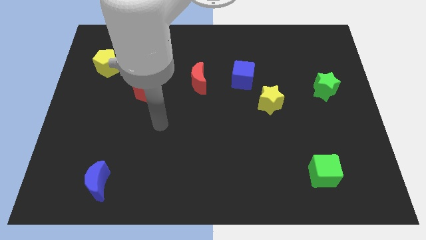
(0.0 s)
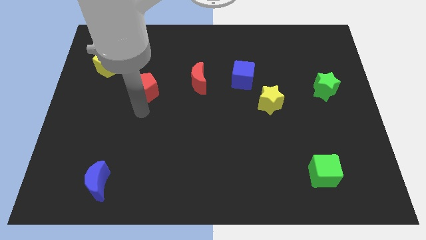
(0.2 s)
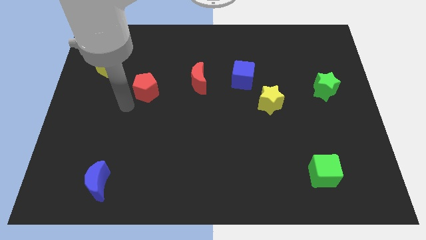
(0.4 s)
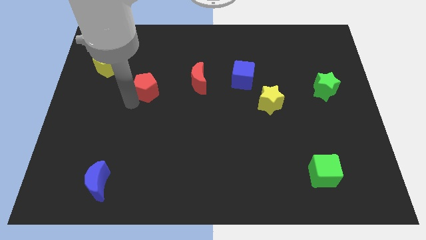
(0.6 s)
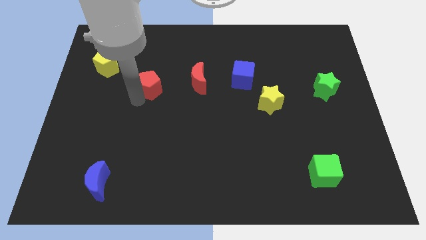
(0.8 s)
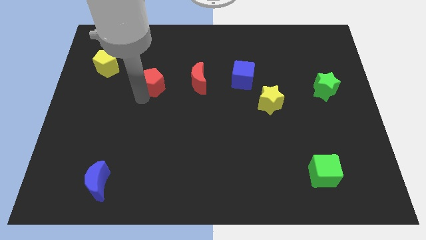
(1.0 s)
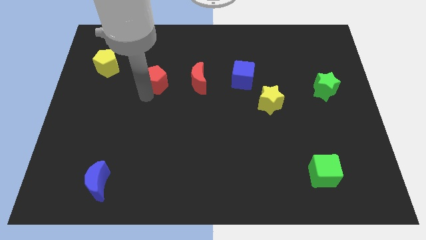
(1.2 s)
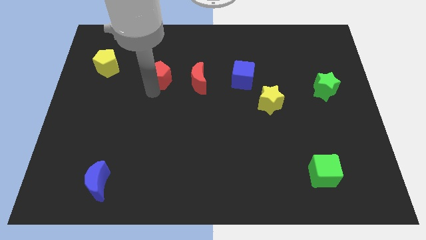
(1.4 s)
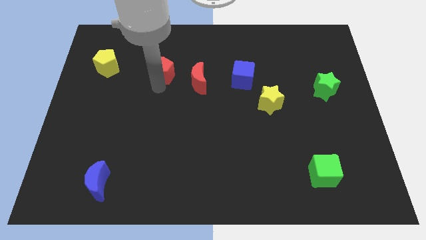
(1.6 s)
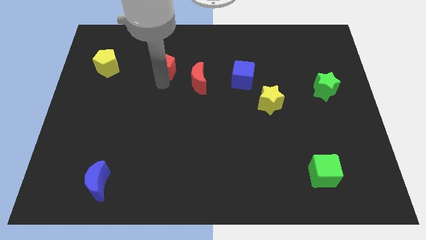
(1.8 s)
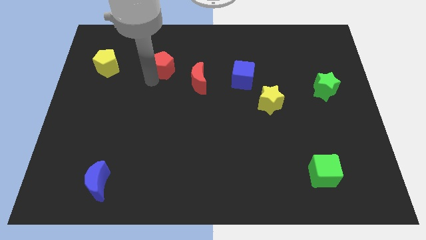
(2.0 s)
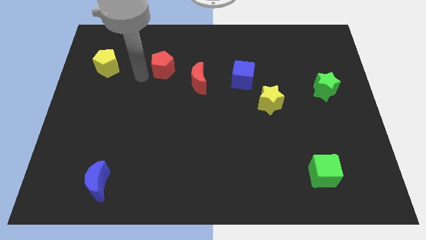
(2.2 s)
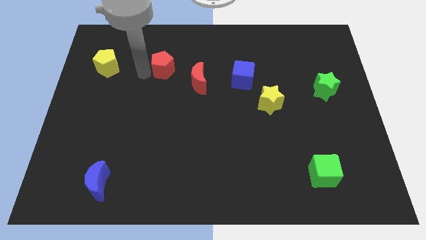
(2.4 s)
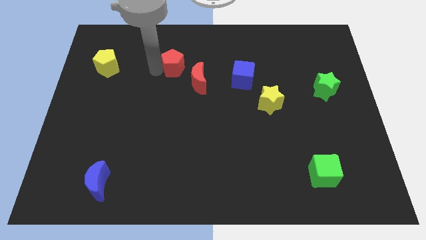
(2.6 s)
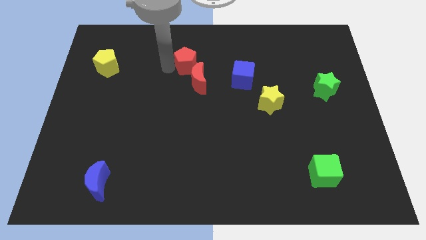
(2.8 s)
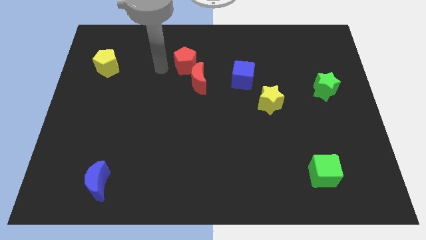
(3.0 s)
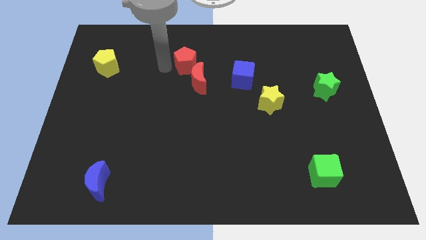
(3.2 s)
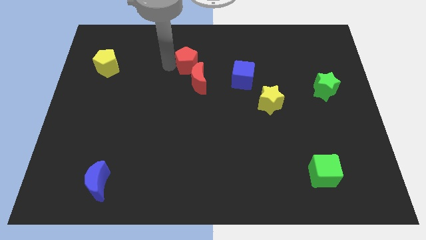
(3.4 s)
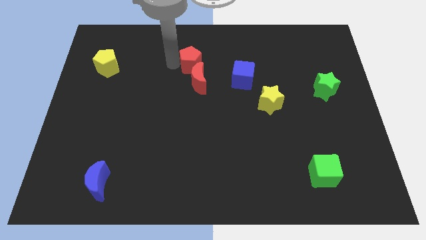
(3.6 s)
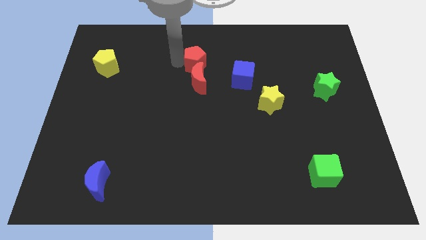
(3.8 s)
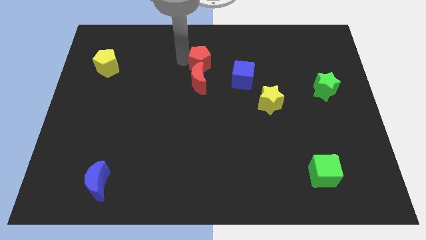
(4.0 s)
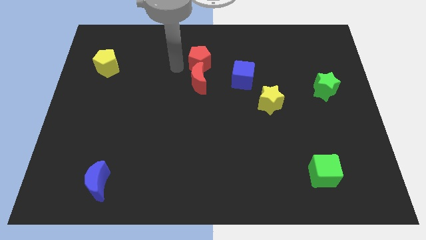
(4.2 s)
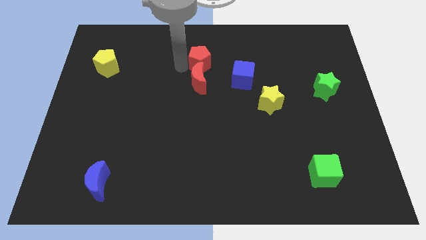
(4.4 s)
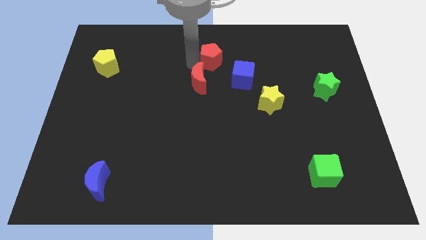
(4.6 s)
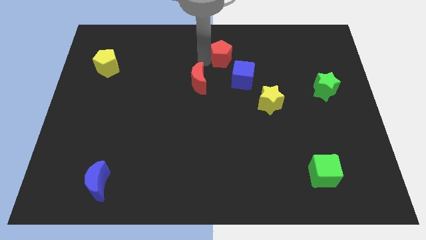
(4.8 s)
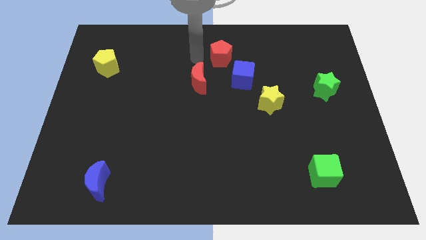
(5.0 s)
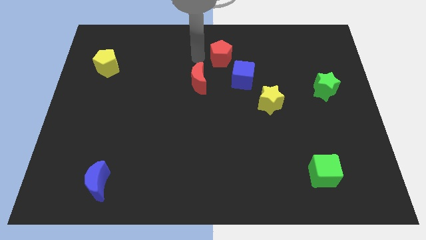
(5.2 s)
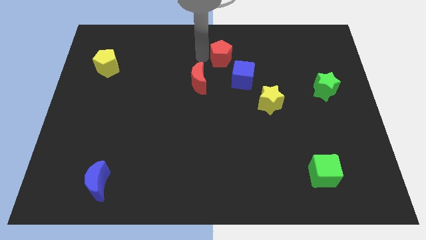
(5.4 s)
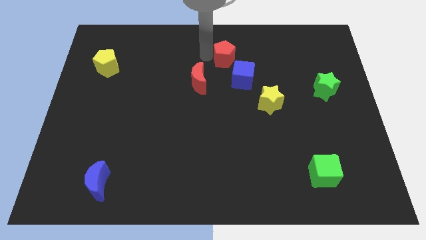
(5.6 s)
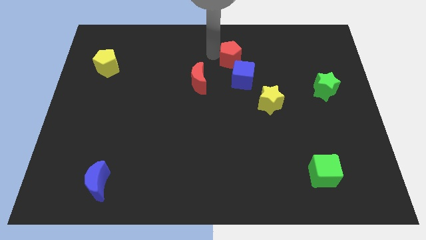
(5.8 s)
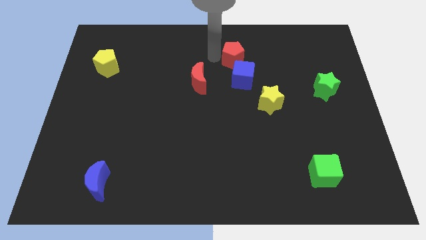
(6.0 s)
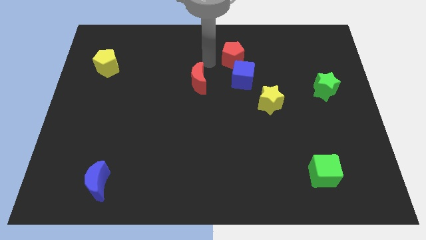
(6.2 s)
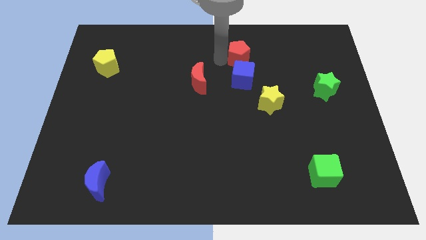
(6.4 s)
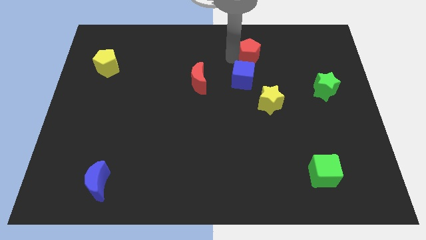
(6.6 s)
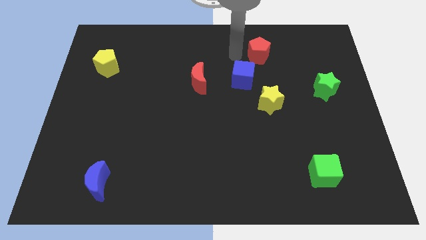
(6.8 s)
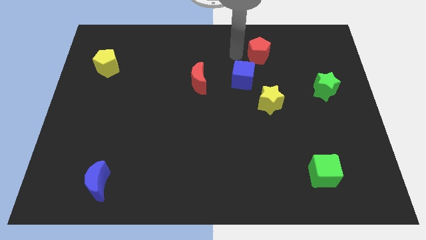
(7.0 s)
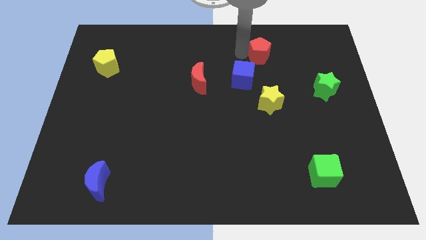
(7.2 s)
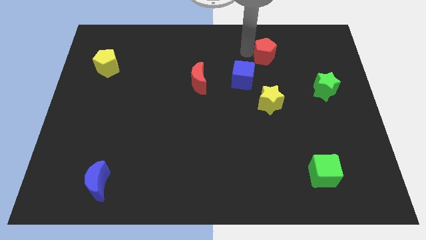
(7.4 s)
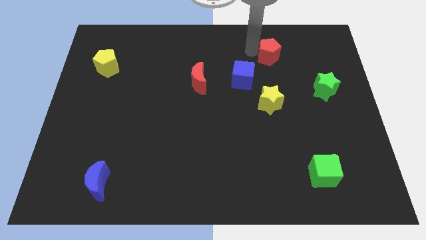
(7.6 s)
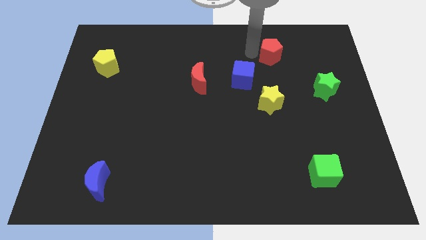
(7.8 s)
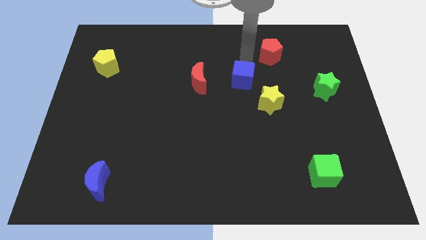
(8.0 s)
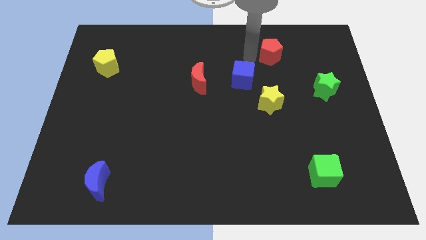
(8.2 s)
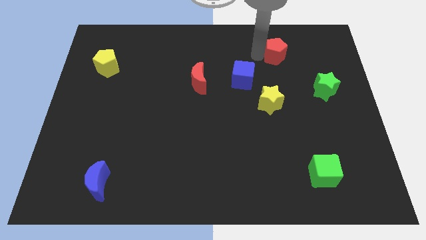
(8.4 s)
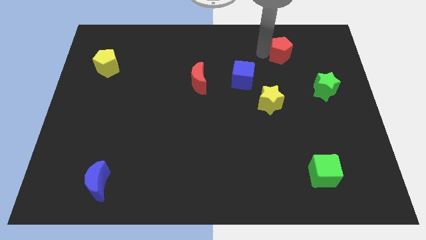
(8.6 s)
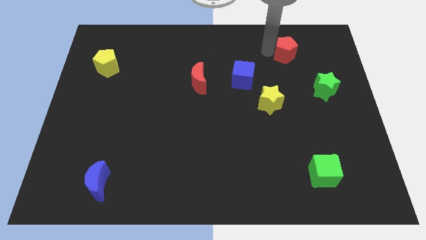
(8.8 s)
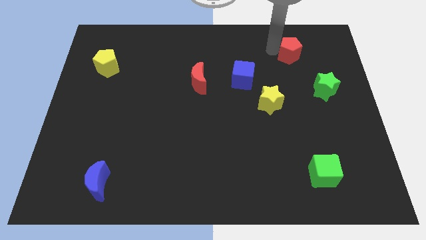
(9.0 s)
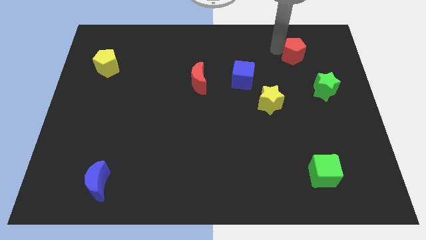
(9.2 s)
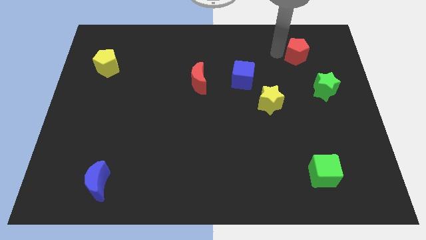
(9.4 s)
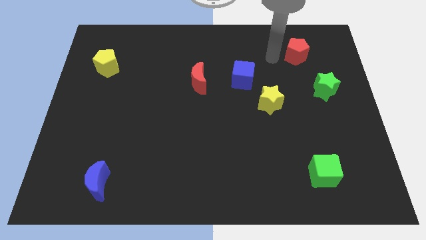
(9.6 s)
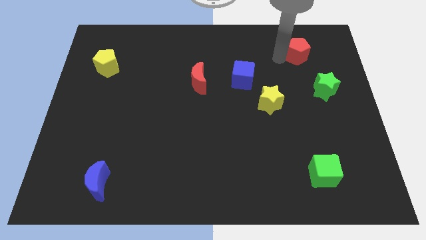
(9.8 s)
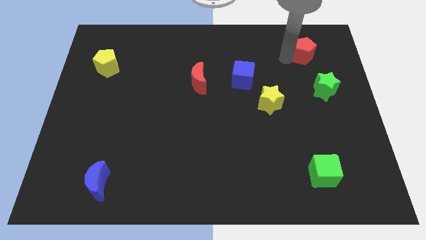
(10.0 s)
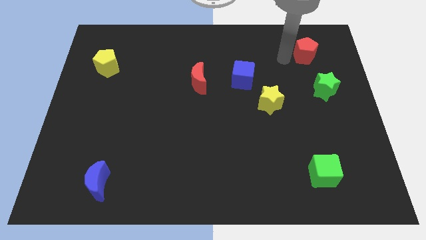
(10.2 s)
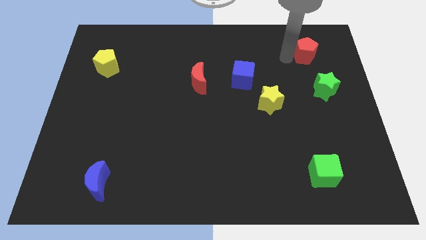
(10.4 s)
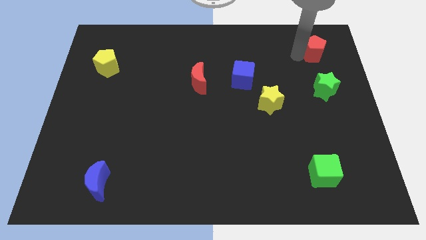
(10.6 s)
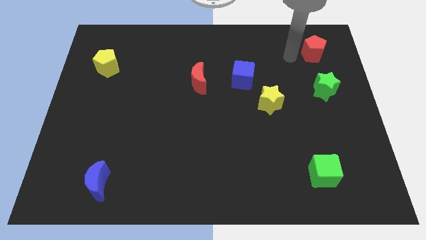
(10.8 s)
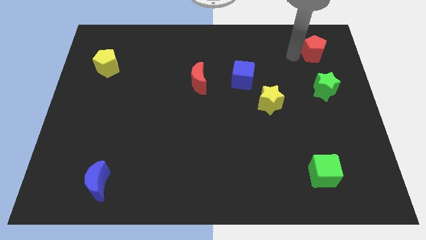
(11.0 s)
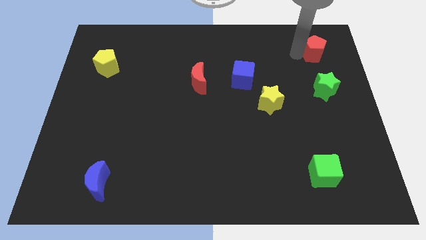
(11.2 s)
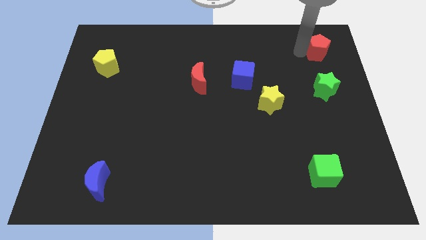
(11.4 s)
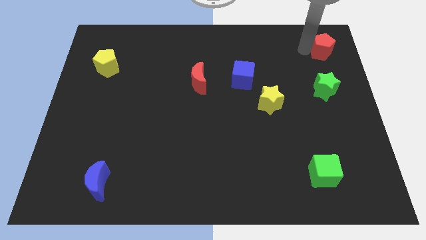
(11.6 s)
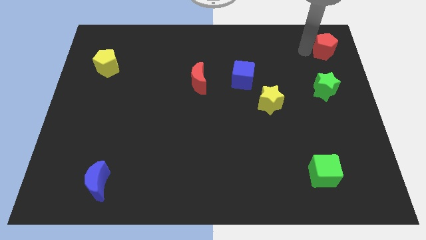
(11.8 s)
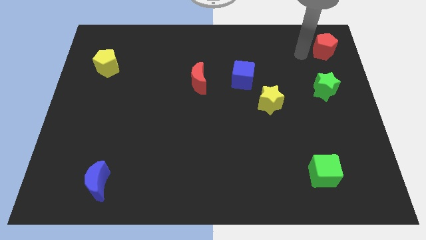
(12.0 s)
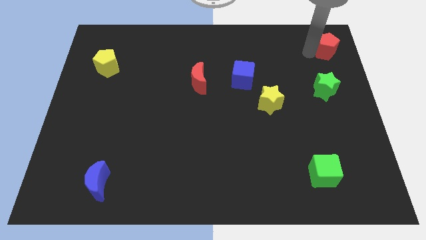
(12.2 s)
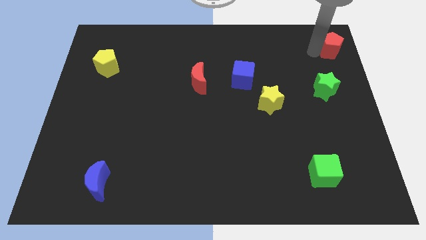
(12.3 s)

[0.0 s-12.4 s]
push the red pentagon to the upper right corner

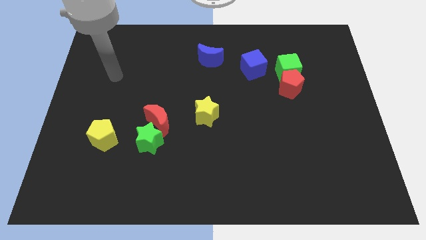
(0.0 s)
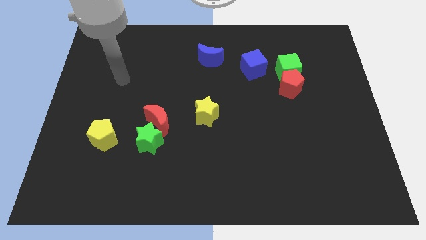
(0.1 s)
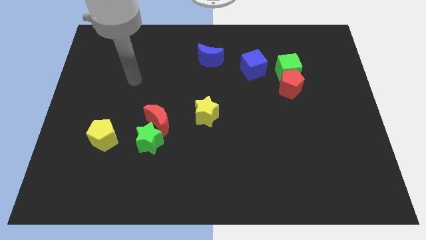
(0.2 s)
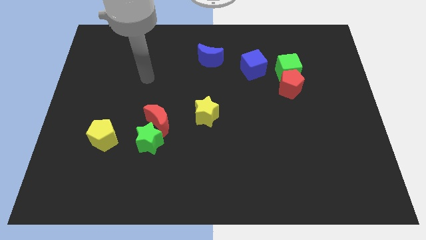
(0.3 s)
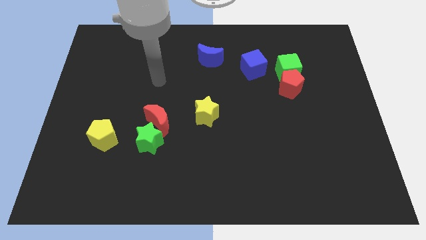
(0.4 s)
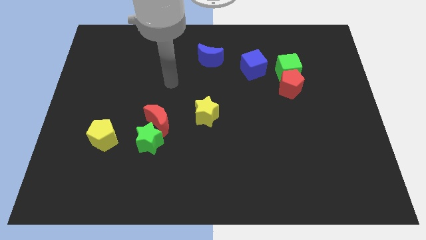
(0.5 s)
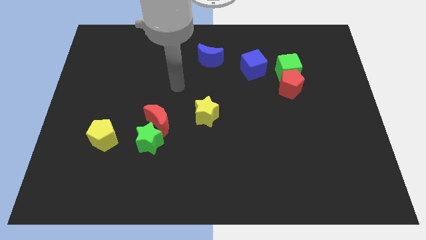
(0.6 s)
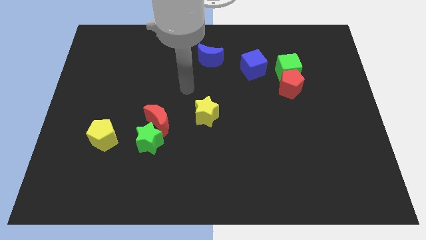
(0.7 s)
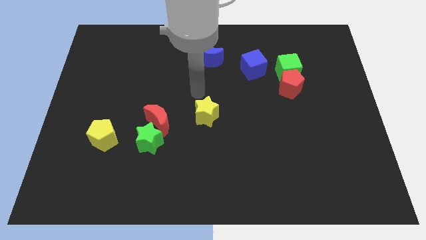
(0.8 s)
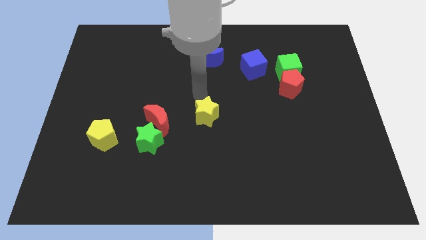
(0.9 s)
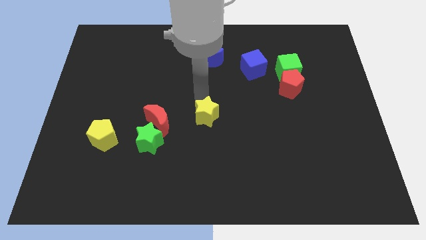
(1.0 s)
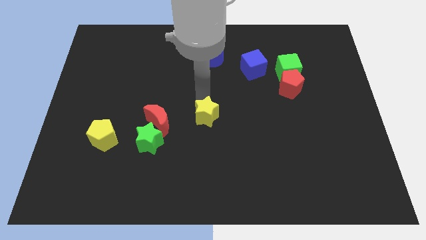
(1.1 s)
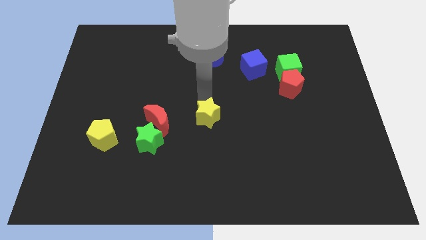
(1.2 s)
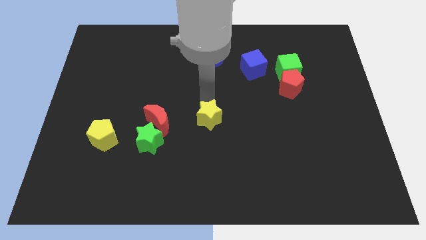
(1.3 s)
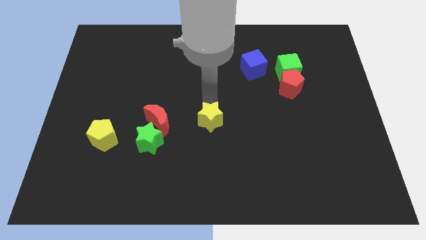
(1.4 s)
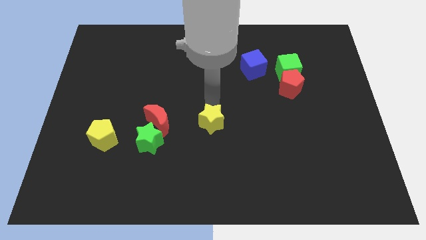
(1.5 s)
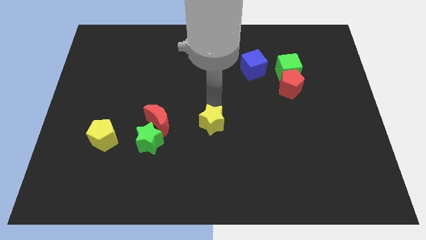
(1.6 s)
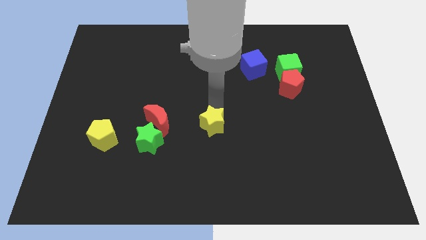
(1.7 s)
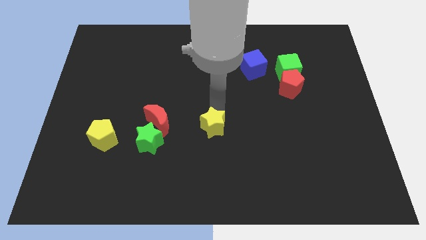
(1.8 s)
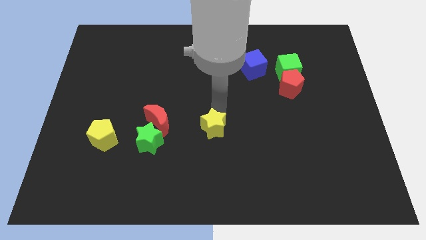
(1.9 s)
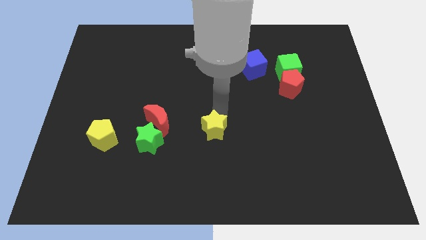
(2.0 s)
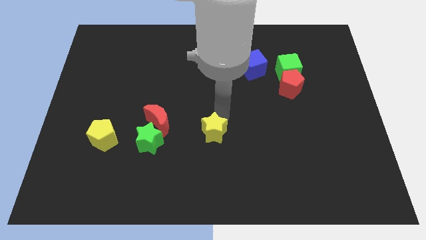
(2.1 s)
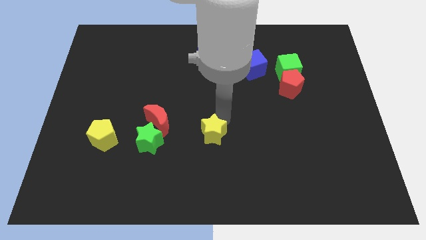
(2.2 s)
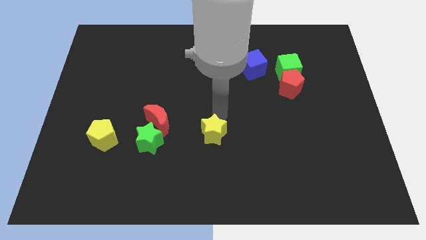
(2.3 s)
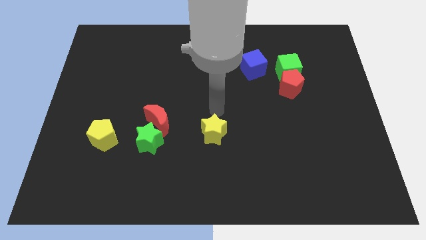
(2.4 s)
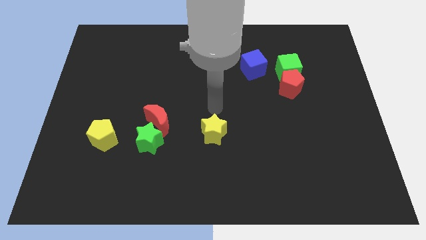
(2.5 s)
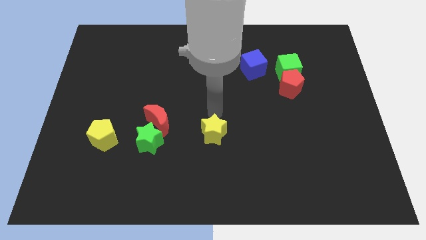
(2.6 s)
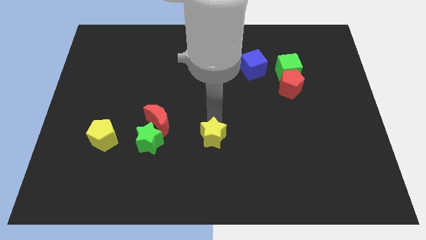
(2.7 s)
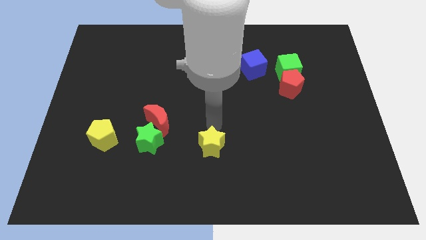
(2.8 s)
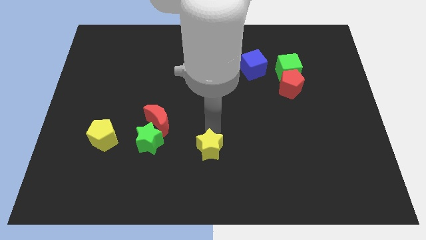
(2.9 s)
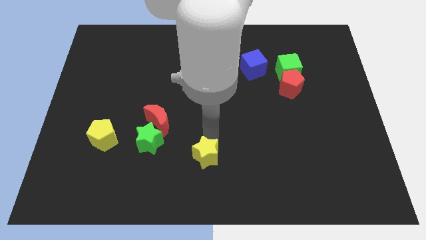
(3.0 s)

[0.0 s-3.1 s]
push the yellow star to the bottom side
